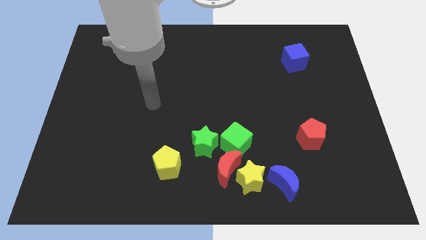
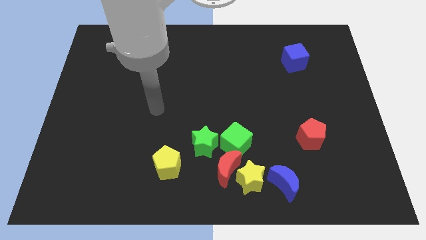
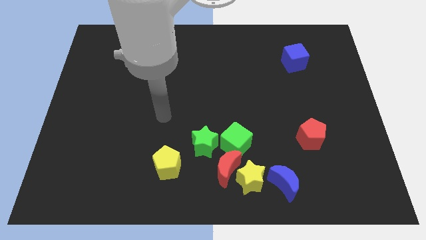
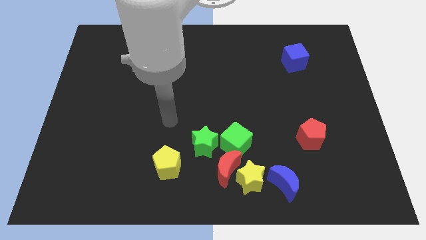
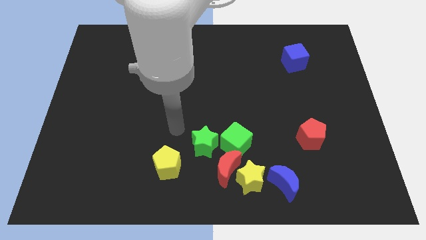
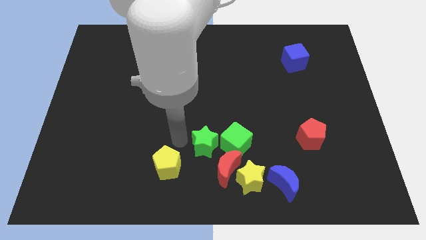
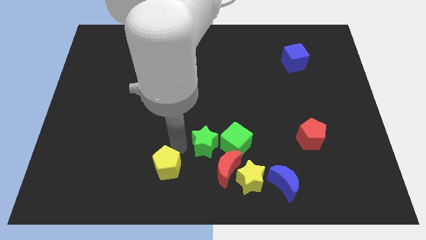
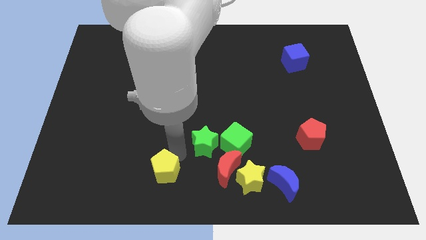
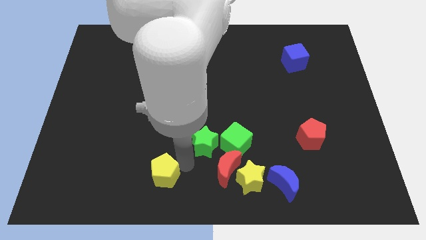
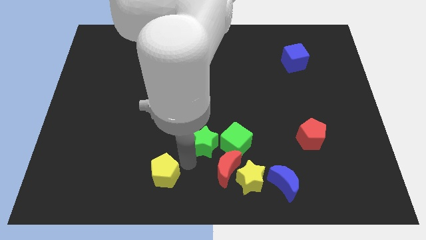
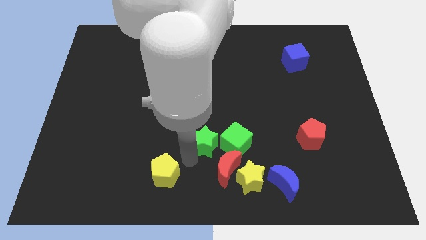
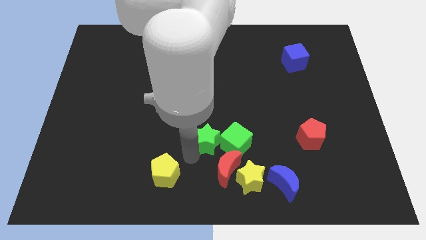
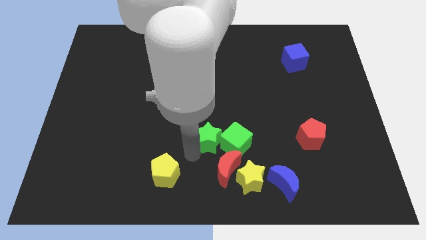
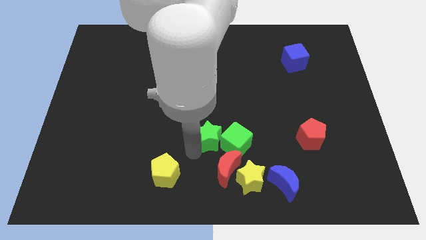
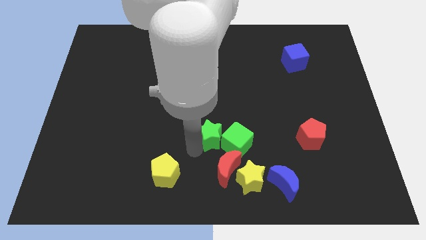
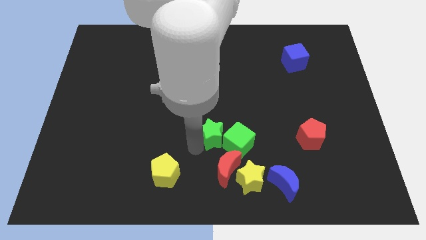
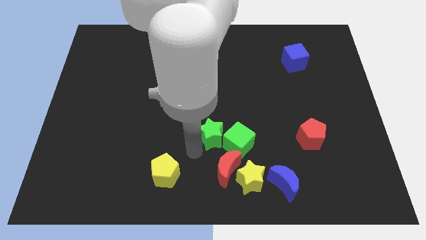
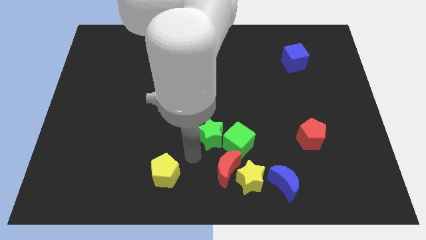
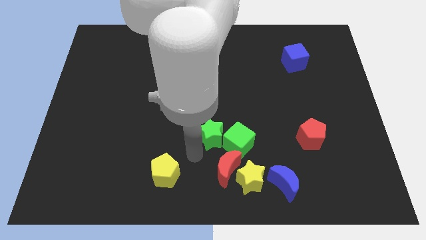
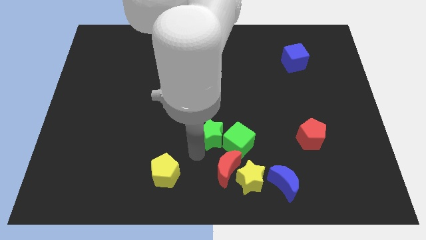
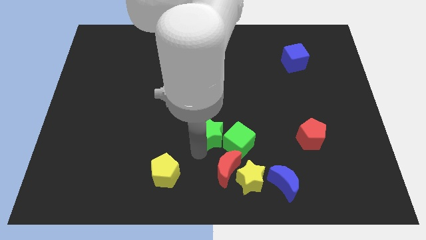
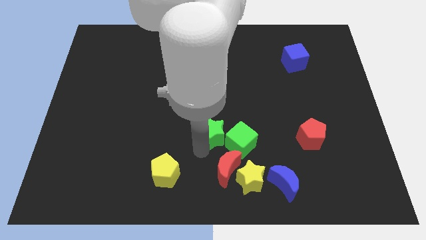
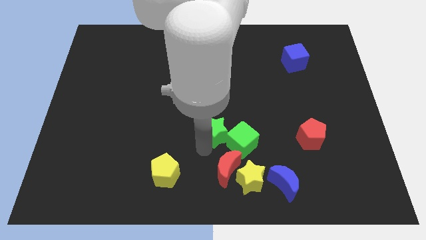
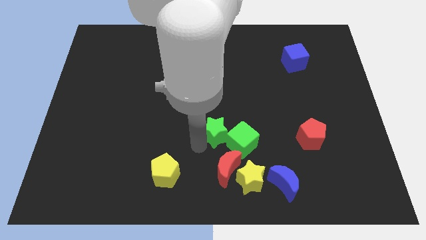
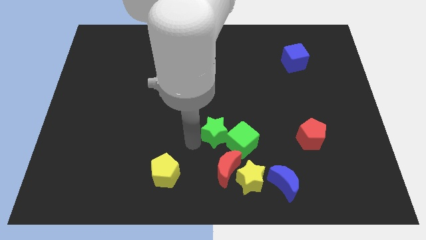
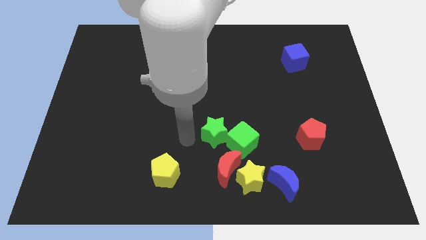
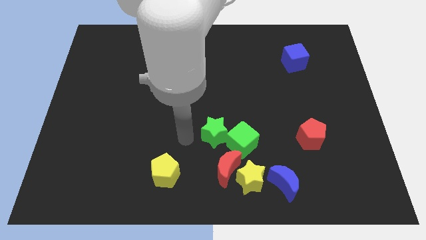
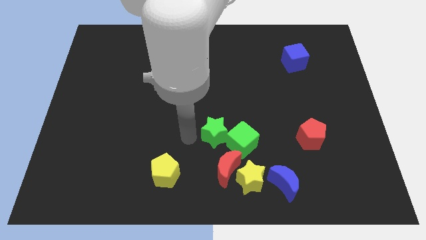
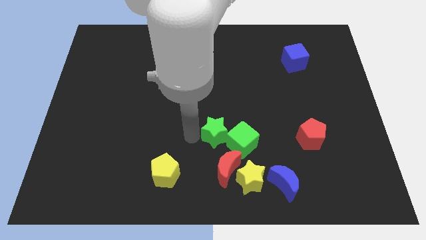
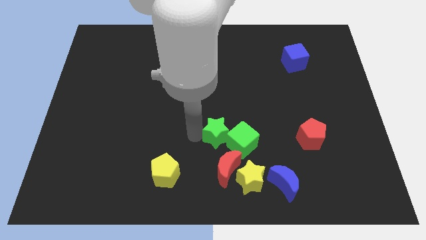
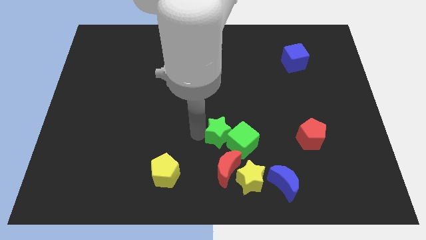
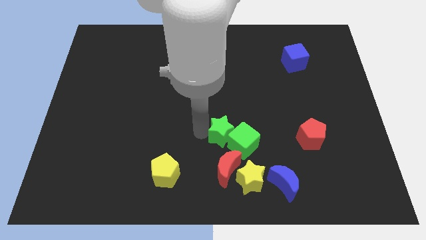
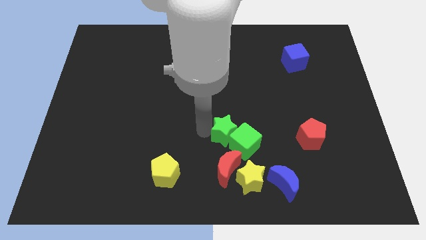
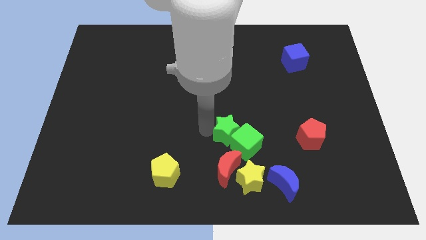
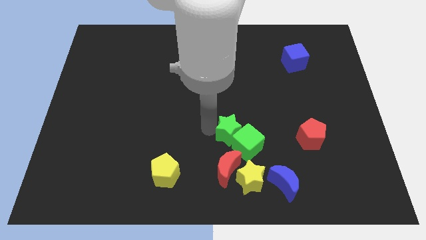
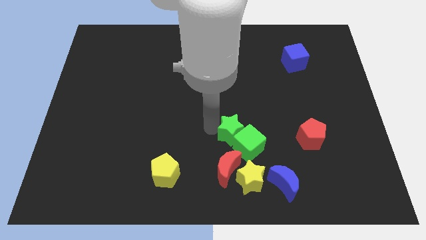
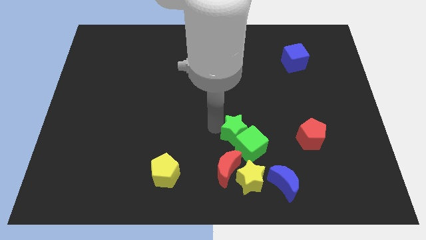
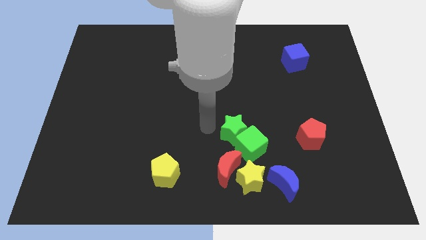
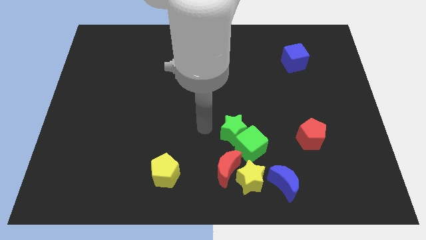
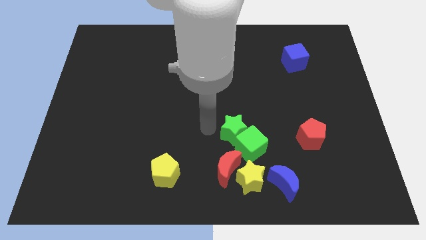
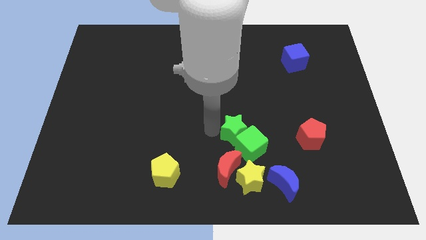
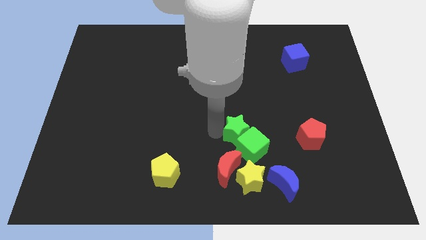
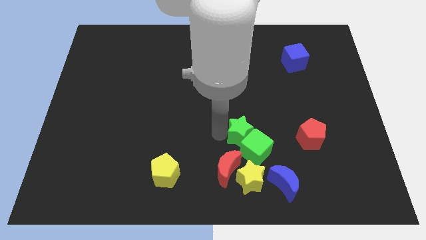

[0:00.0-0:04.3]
move the green star a bit to the right

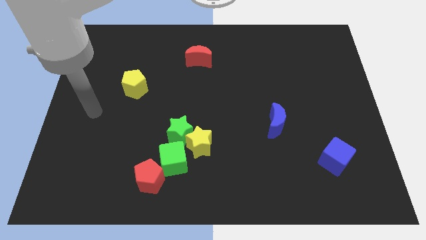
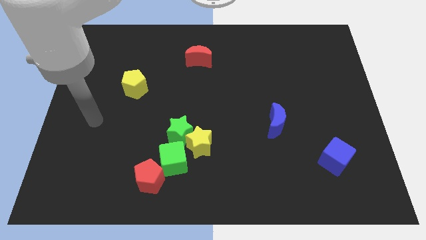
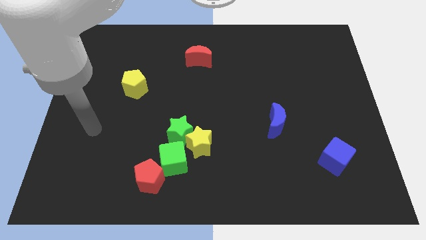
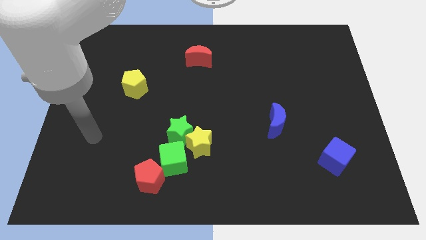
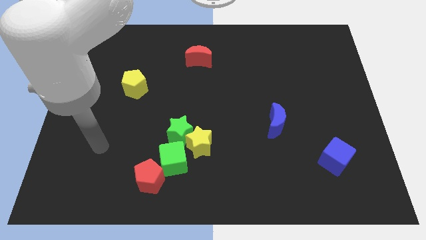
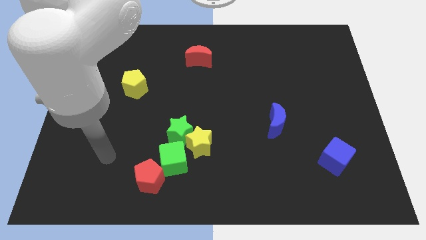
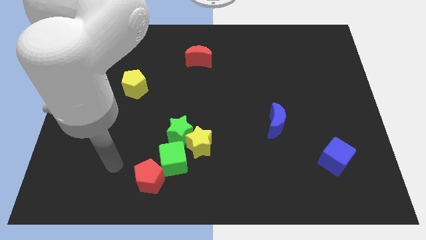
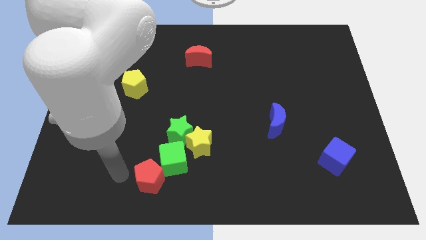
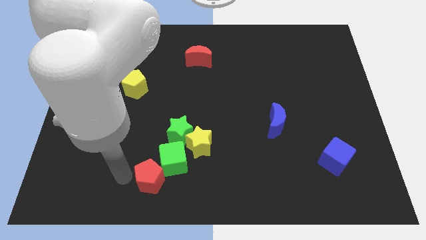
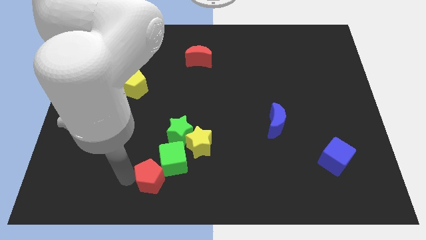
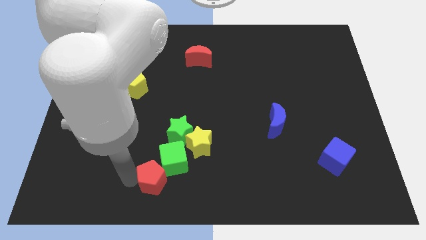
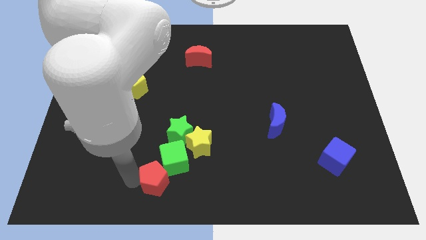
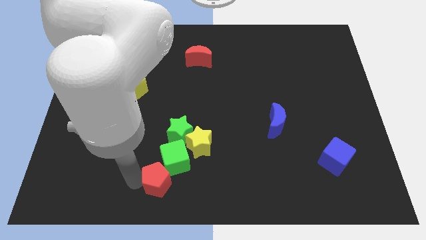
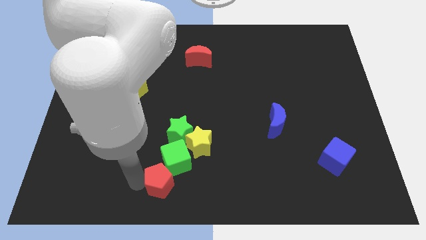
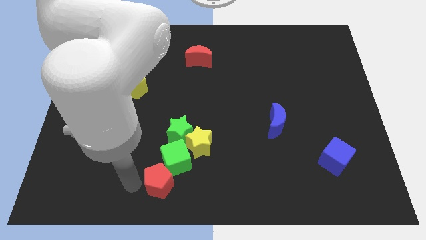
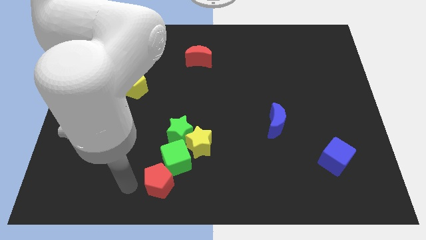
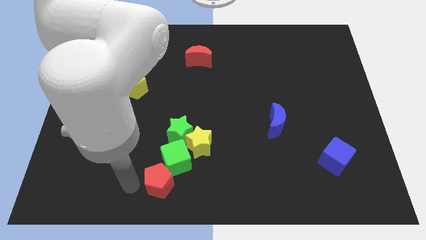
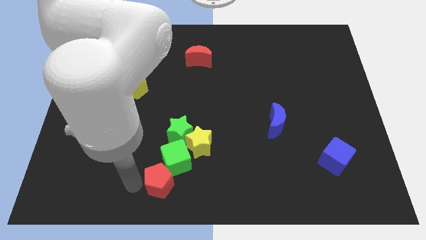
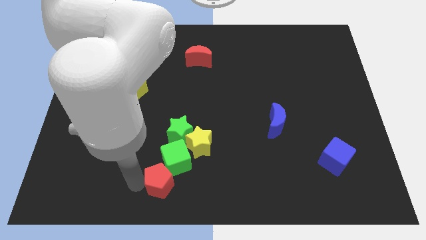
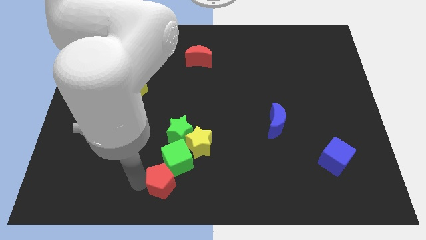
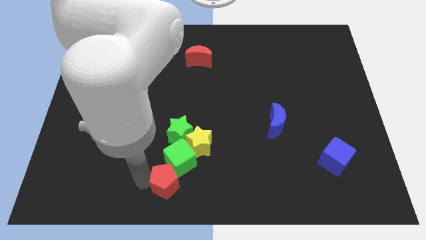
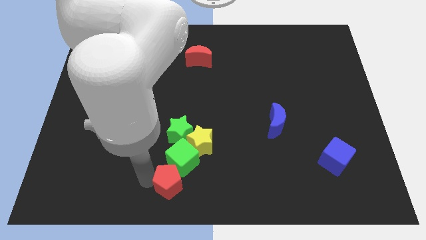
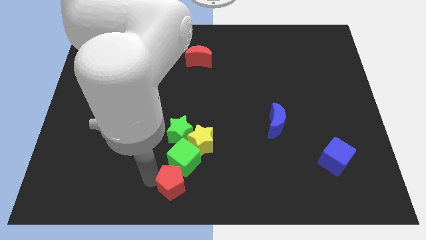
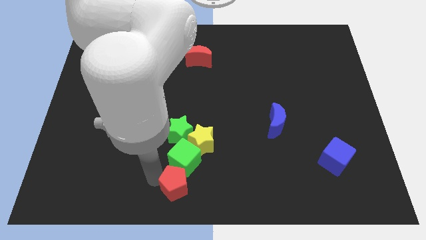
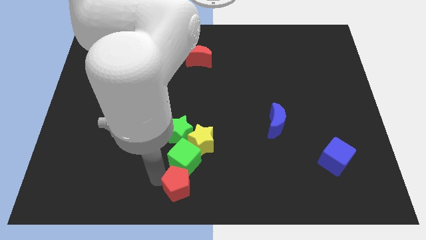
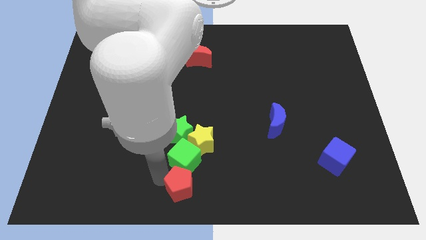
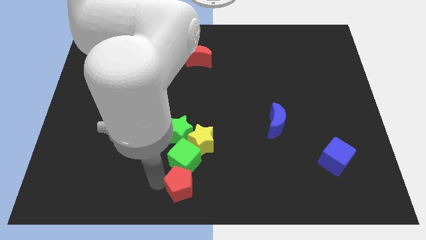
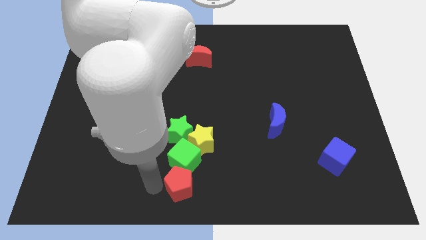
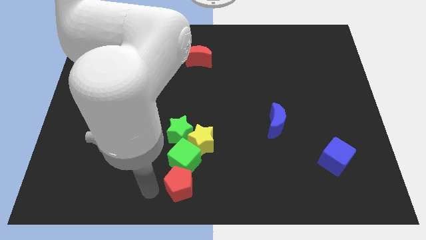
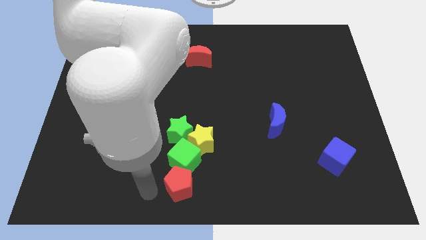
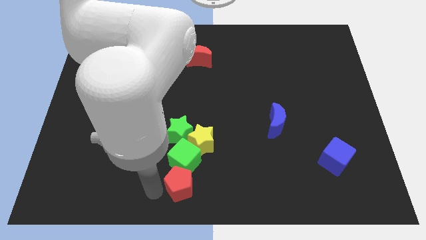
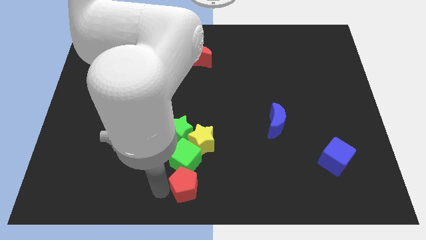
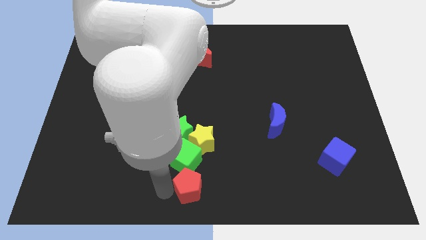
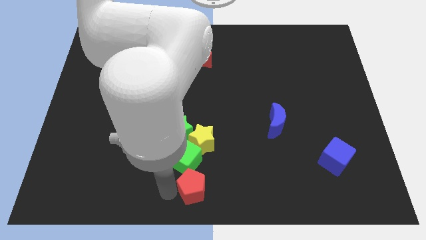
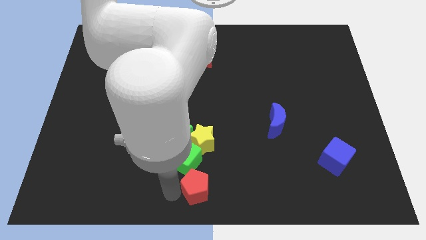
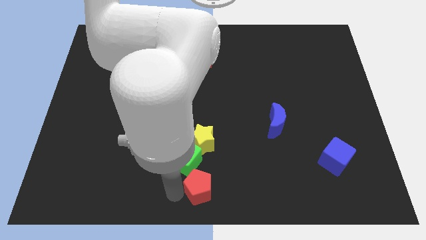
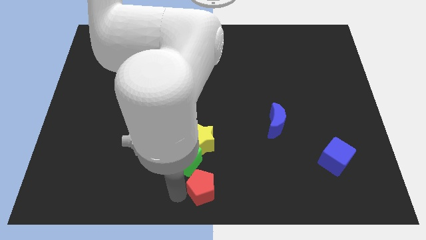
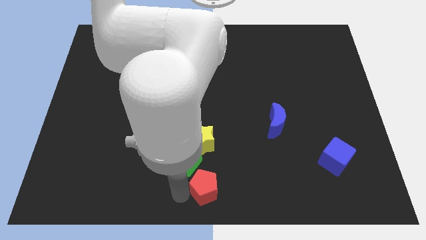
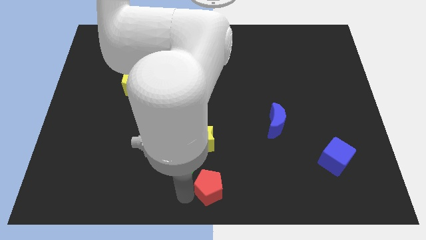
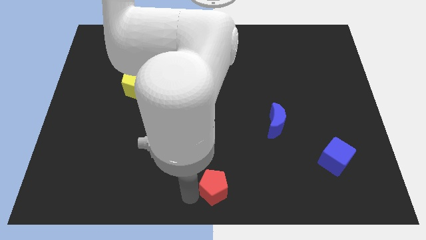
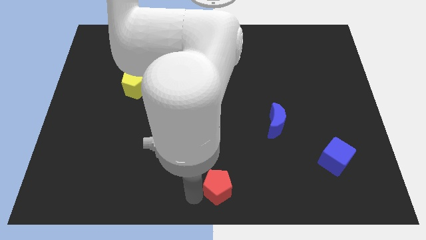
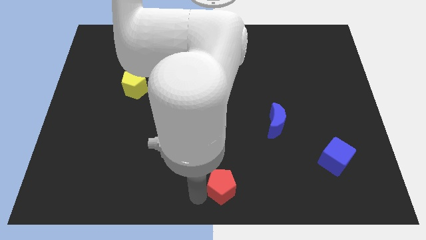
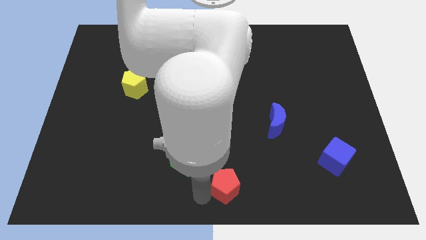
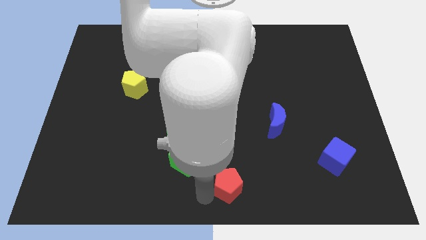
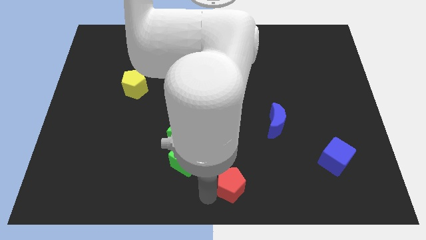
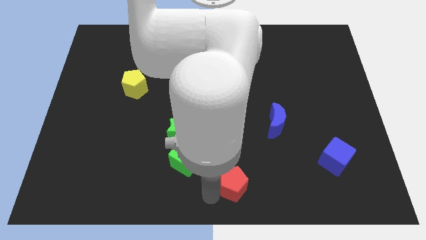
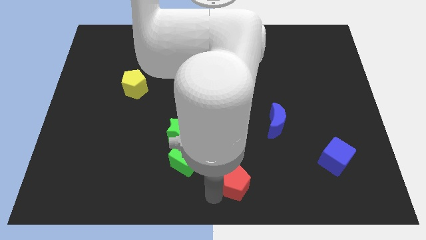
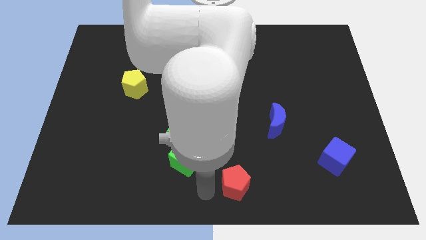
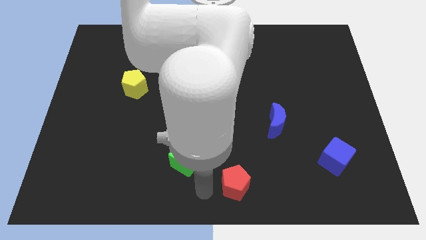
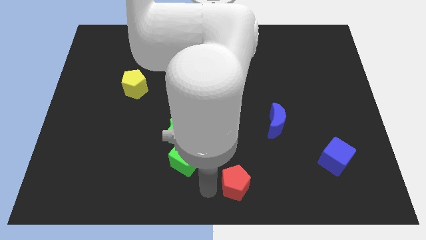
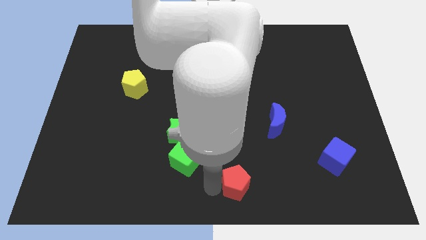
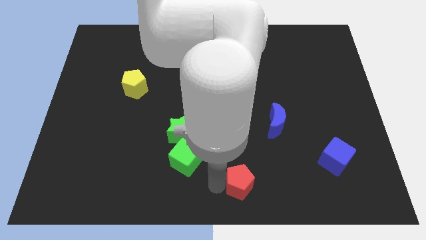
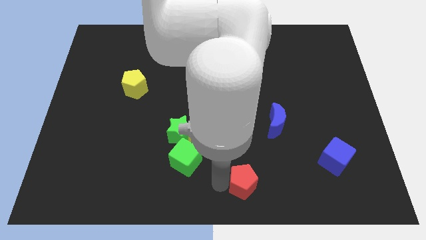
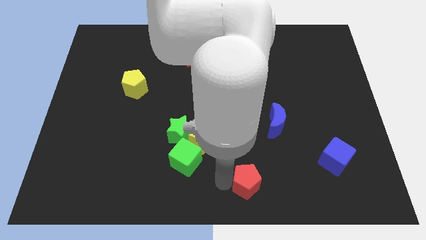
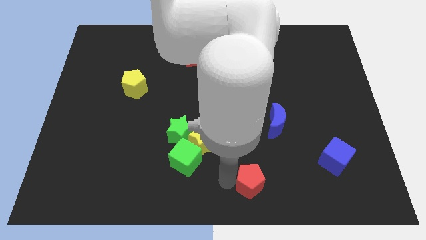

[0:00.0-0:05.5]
push the red pentagon right
